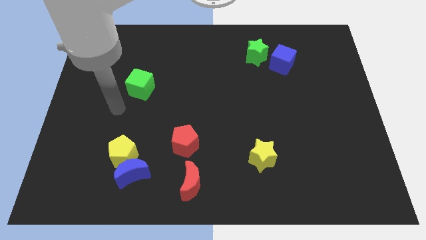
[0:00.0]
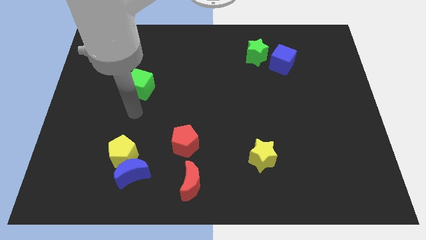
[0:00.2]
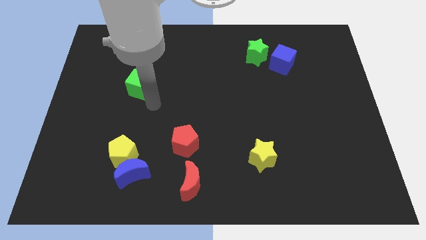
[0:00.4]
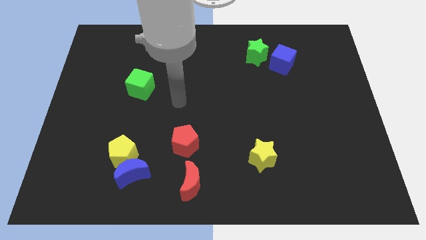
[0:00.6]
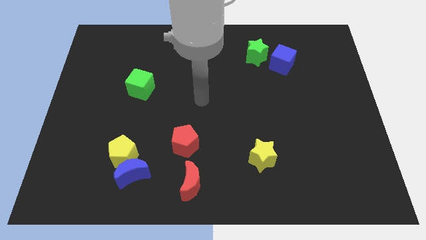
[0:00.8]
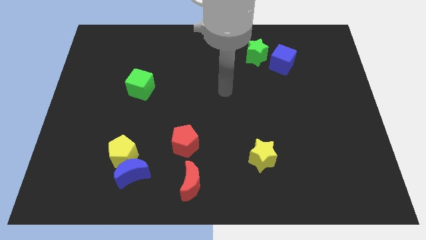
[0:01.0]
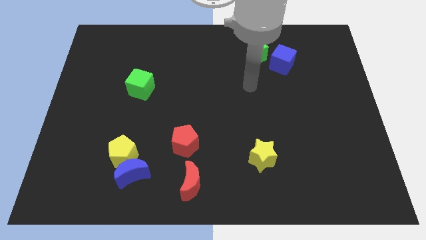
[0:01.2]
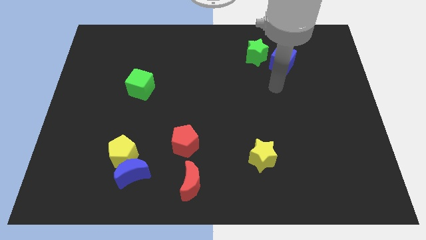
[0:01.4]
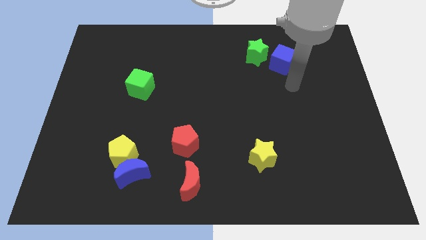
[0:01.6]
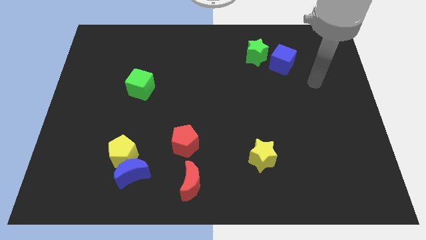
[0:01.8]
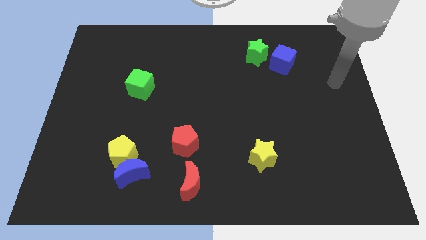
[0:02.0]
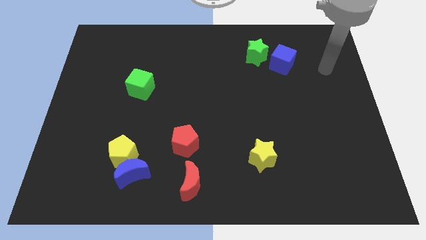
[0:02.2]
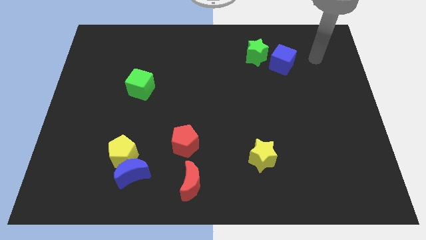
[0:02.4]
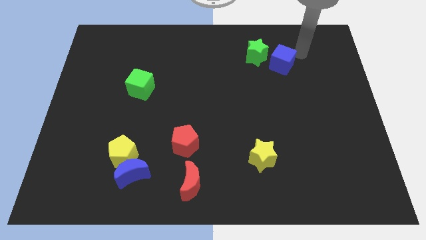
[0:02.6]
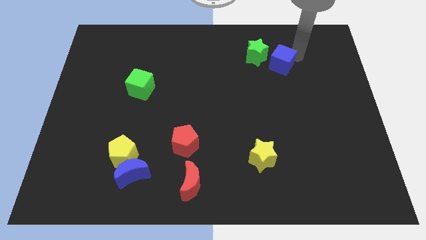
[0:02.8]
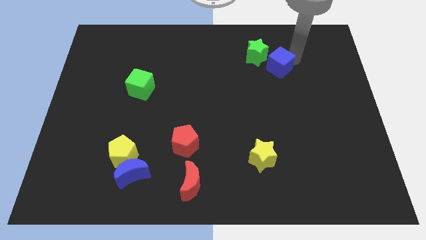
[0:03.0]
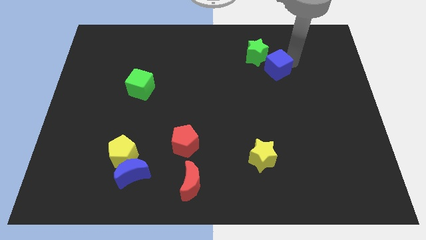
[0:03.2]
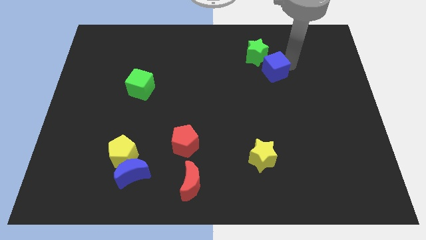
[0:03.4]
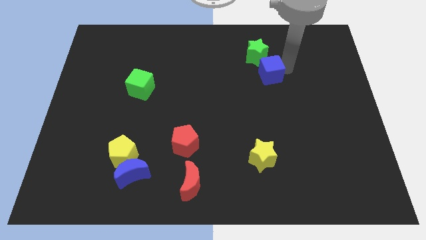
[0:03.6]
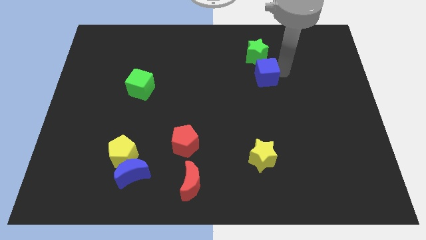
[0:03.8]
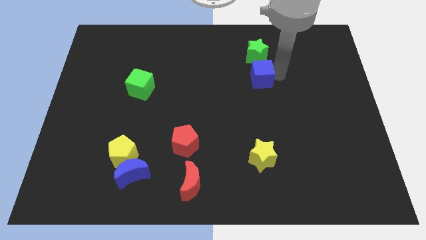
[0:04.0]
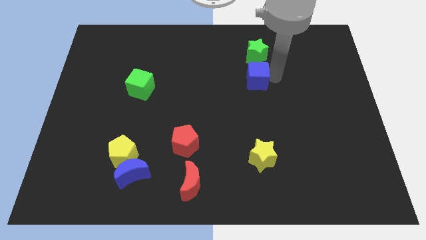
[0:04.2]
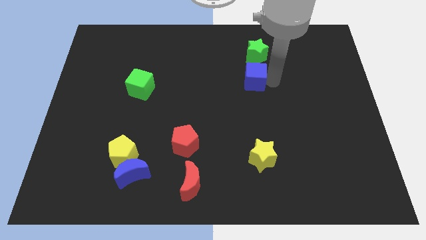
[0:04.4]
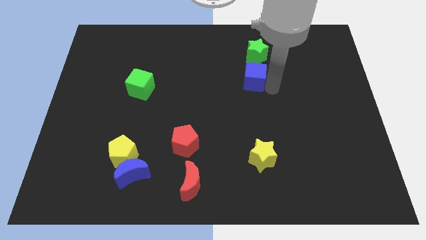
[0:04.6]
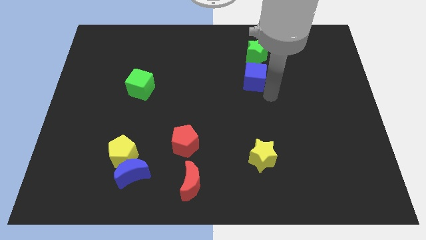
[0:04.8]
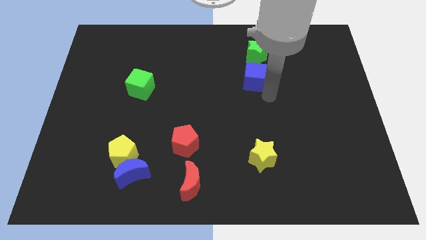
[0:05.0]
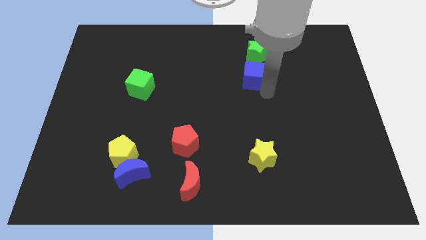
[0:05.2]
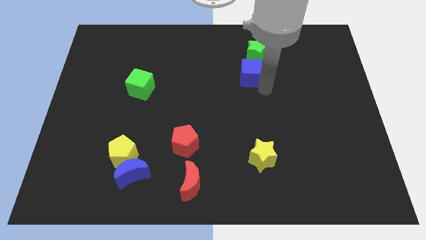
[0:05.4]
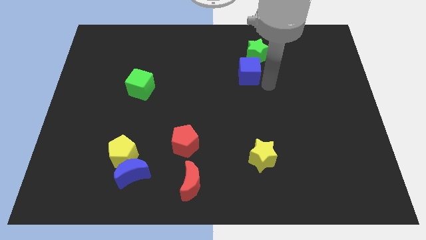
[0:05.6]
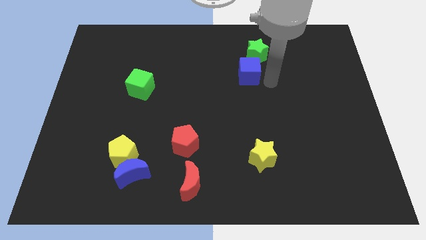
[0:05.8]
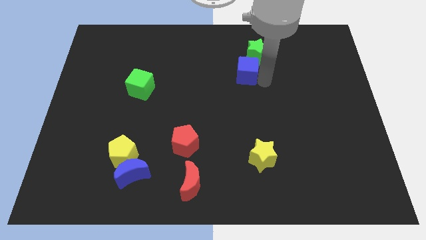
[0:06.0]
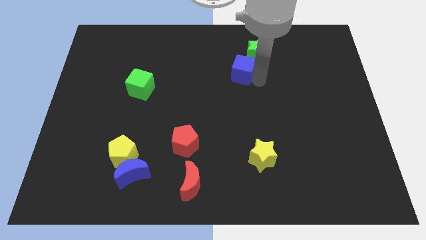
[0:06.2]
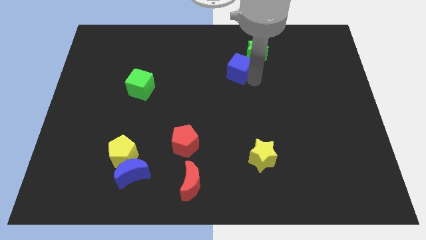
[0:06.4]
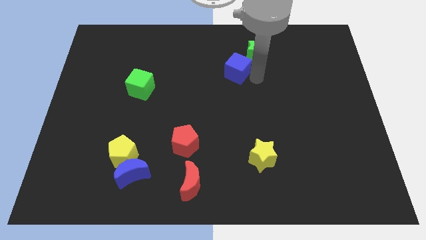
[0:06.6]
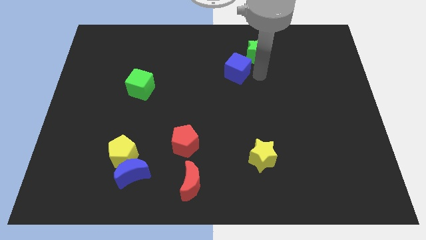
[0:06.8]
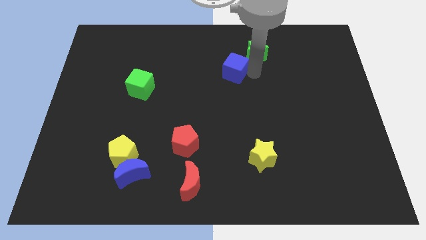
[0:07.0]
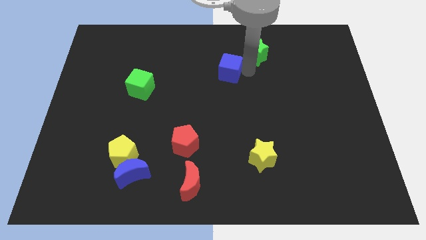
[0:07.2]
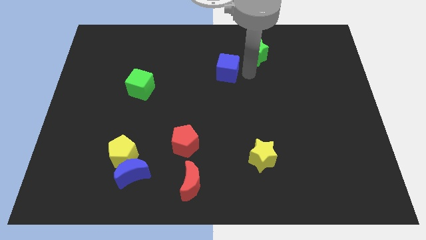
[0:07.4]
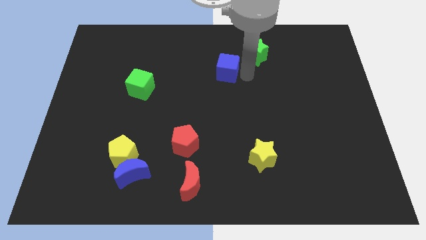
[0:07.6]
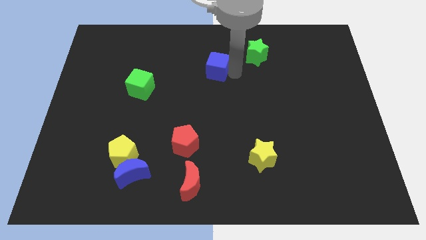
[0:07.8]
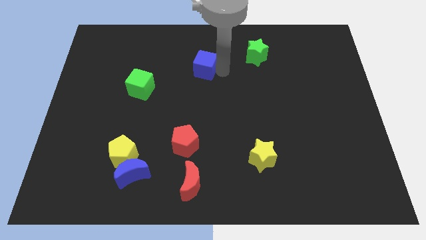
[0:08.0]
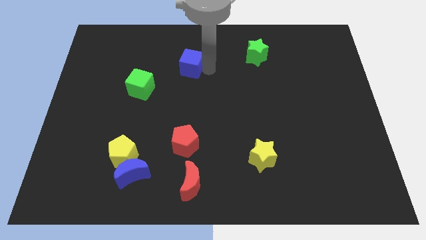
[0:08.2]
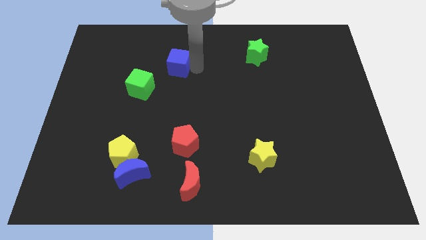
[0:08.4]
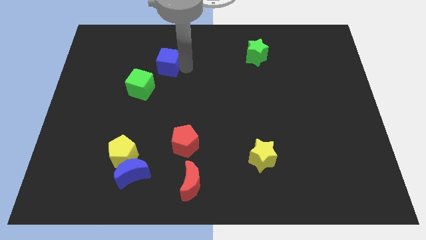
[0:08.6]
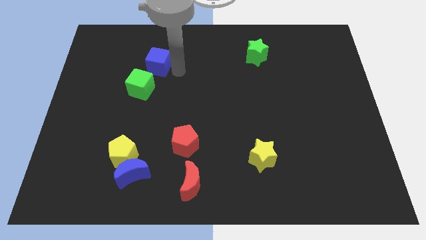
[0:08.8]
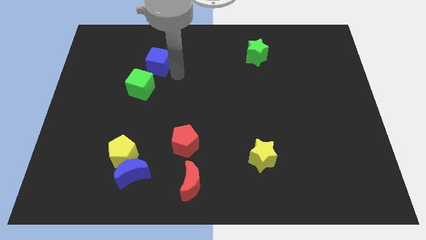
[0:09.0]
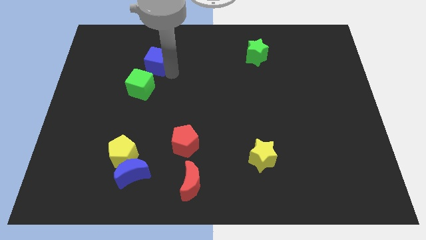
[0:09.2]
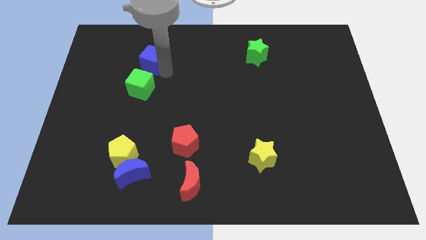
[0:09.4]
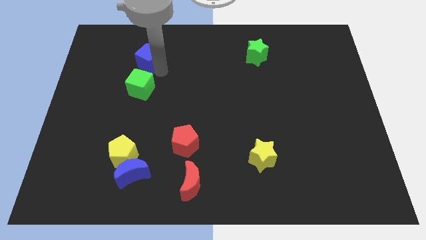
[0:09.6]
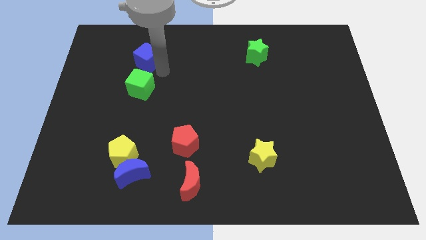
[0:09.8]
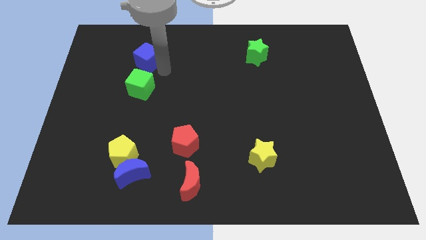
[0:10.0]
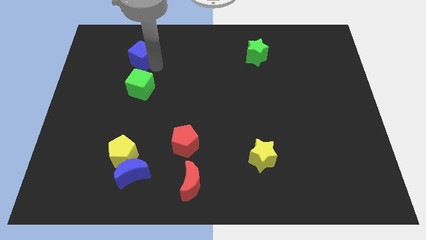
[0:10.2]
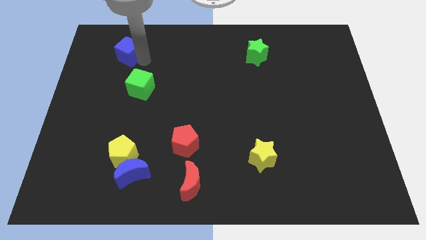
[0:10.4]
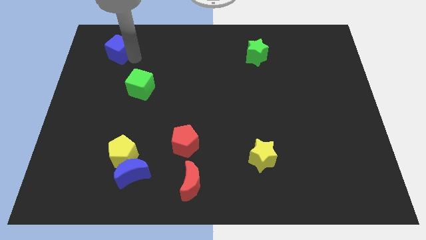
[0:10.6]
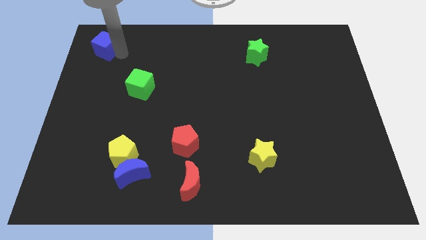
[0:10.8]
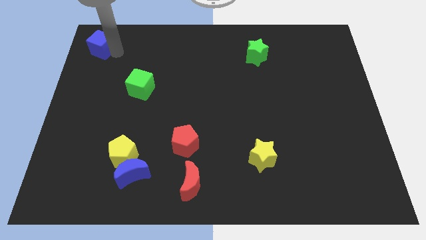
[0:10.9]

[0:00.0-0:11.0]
slide the blue cube to the upper left corner
